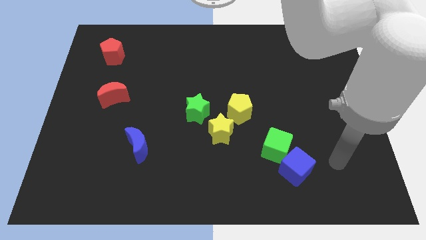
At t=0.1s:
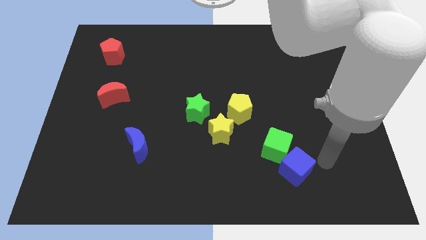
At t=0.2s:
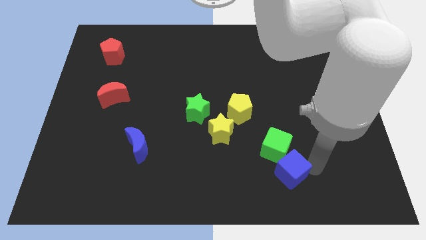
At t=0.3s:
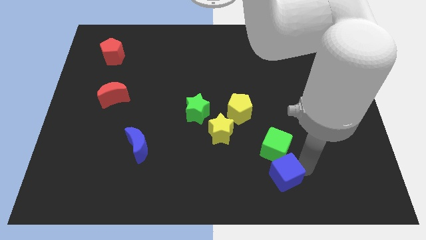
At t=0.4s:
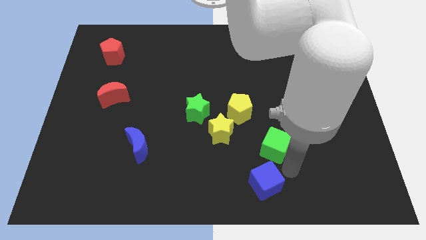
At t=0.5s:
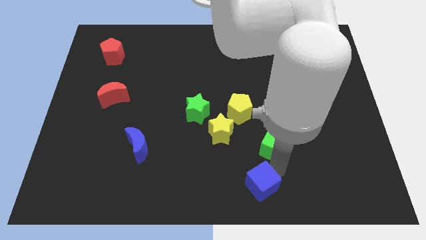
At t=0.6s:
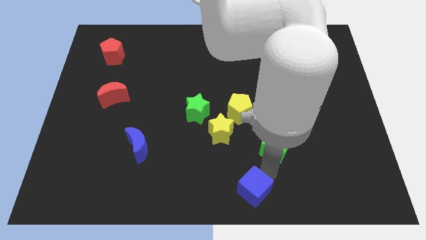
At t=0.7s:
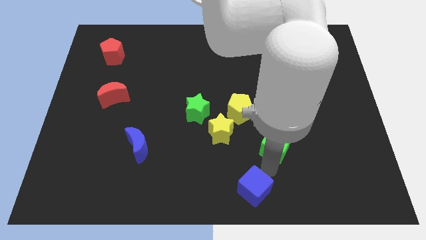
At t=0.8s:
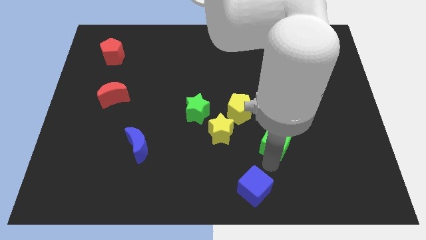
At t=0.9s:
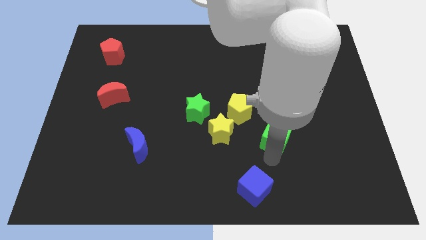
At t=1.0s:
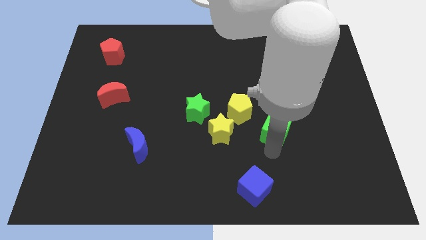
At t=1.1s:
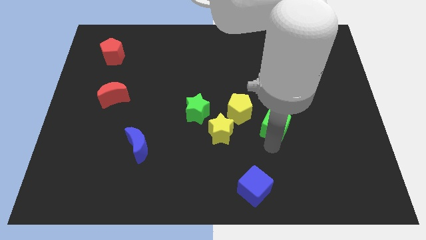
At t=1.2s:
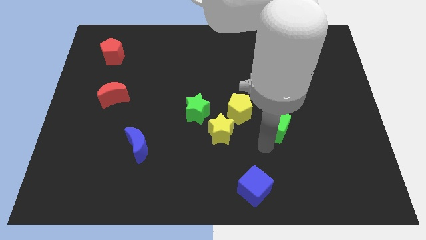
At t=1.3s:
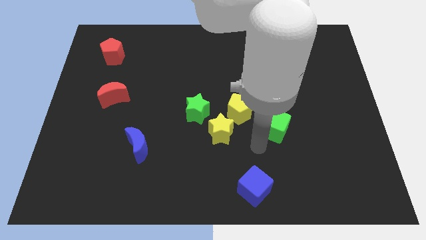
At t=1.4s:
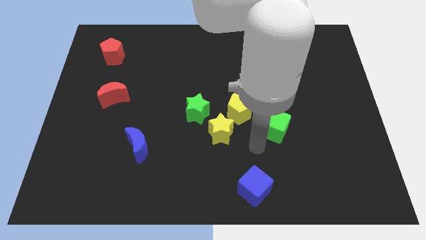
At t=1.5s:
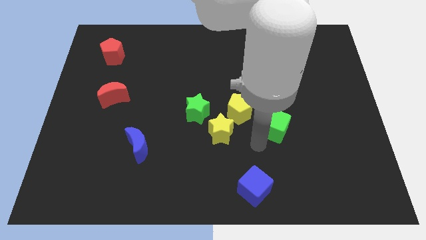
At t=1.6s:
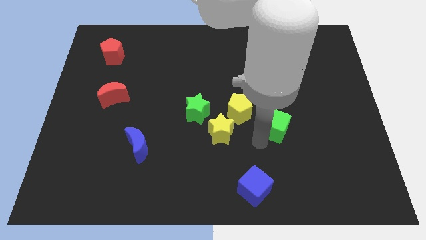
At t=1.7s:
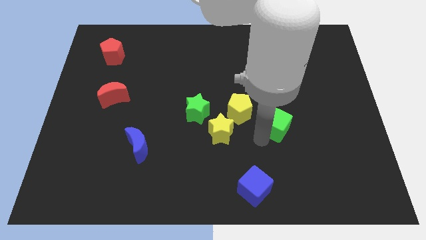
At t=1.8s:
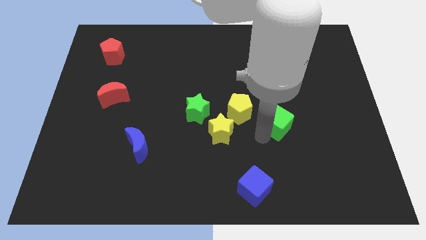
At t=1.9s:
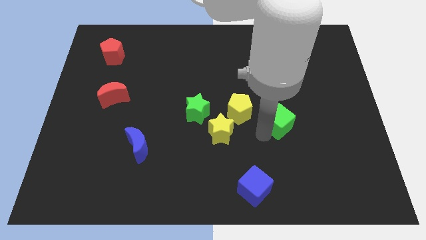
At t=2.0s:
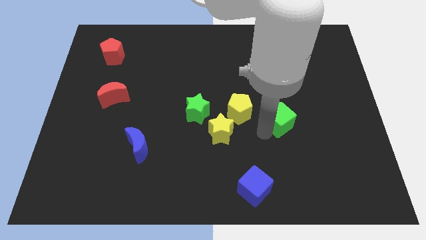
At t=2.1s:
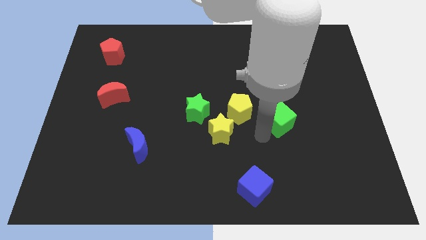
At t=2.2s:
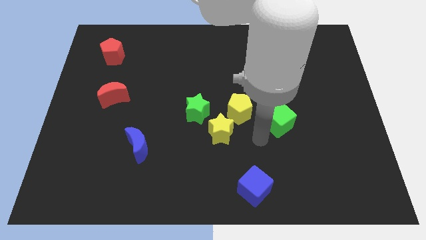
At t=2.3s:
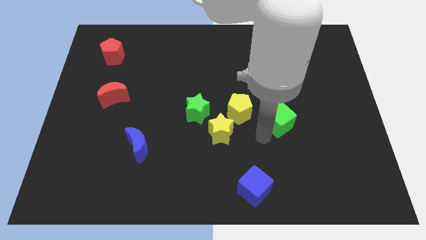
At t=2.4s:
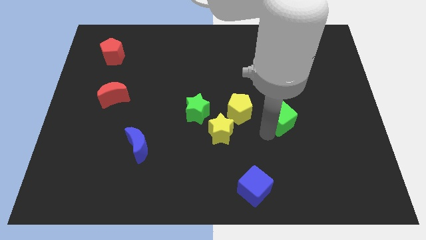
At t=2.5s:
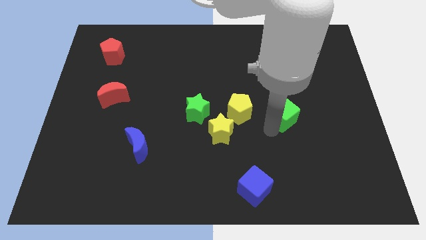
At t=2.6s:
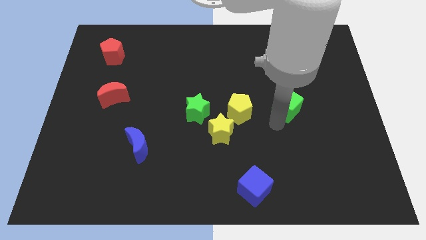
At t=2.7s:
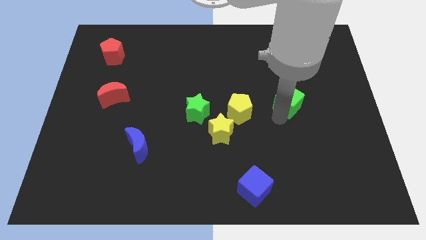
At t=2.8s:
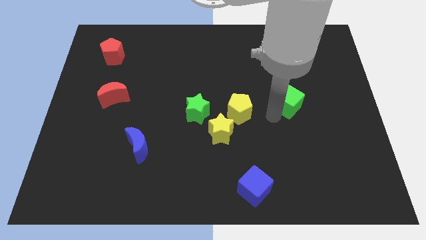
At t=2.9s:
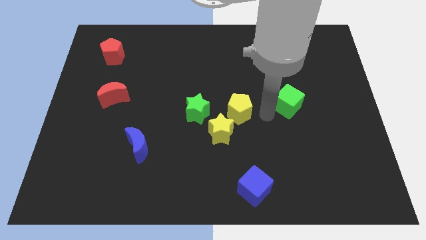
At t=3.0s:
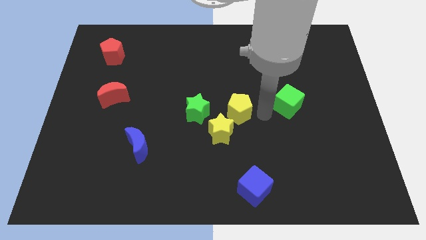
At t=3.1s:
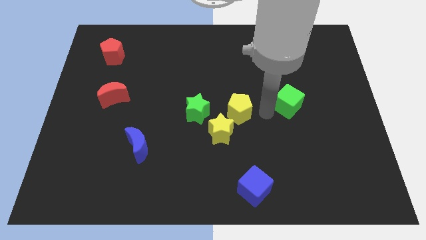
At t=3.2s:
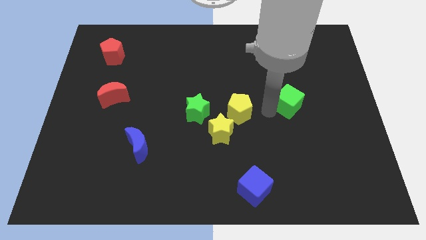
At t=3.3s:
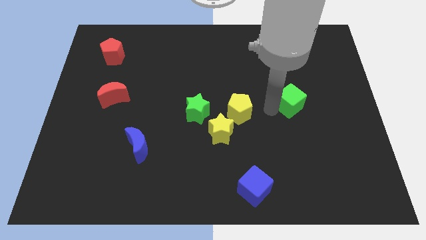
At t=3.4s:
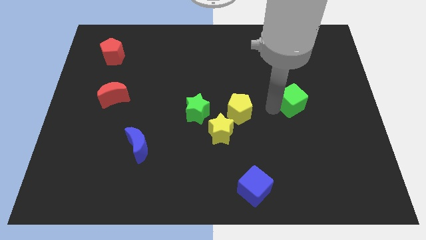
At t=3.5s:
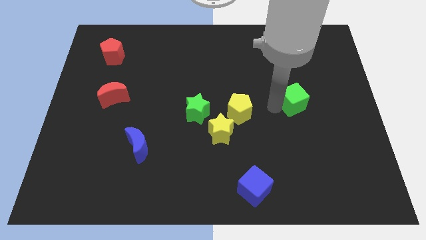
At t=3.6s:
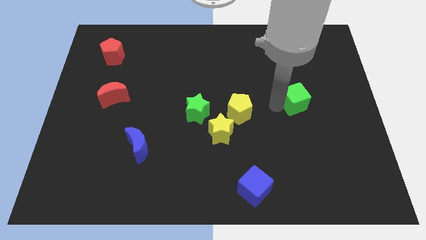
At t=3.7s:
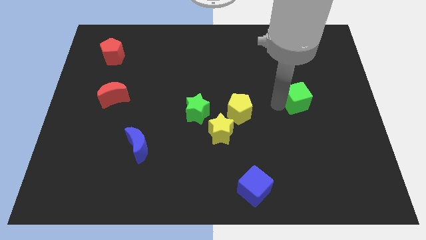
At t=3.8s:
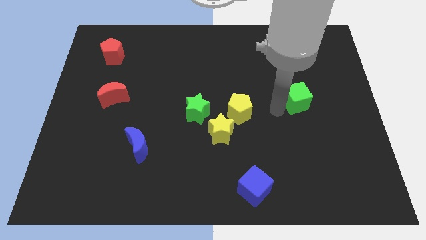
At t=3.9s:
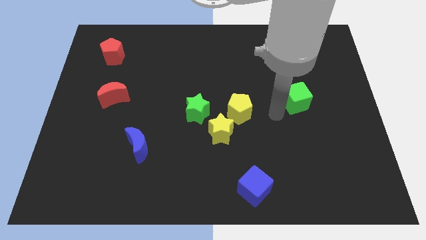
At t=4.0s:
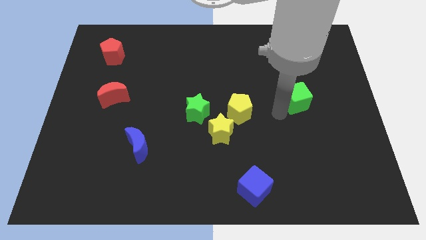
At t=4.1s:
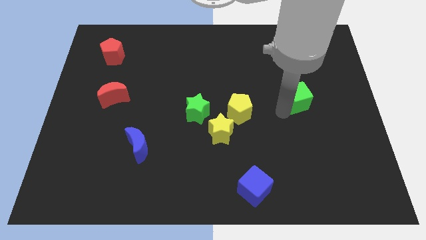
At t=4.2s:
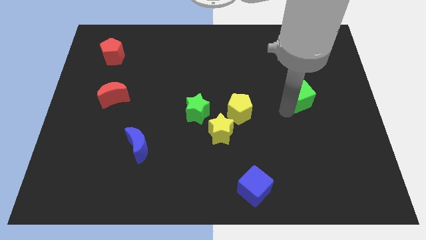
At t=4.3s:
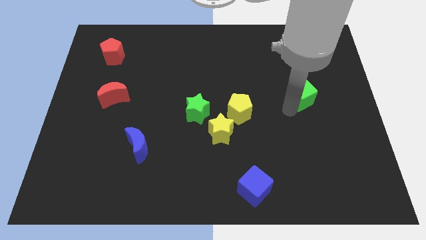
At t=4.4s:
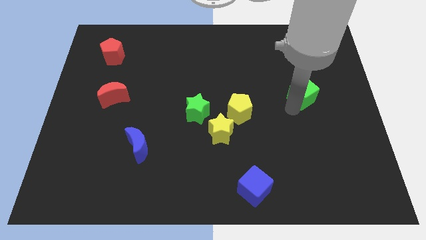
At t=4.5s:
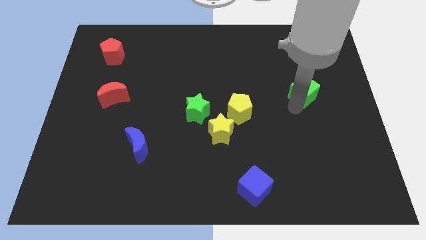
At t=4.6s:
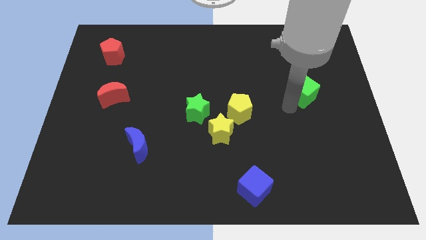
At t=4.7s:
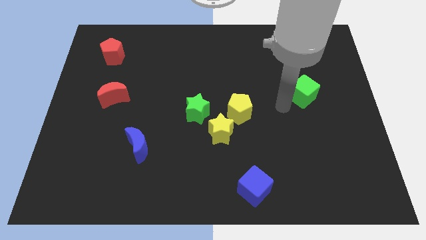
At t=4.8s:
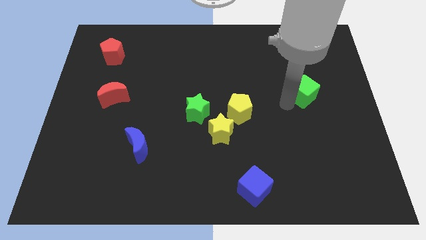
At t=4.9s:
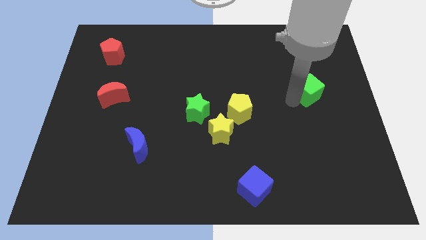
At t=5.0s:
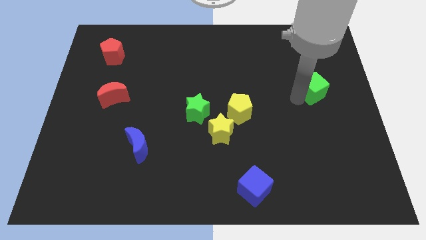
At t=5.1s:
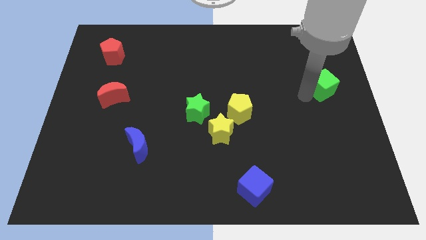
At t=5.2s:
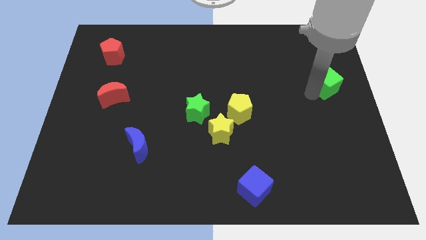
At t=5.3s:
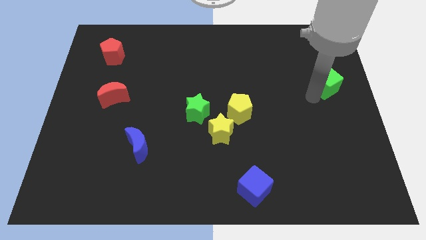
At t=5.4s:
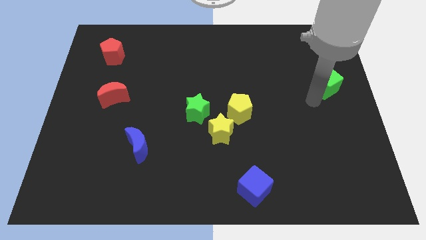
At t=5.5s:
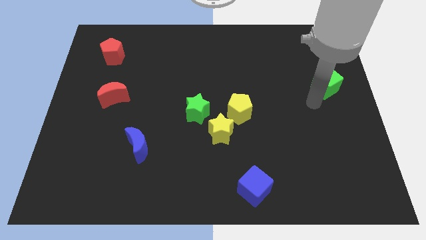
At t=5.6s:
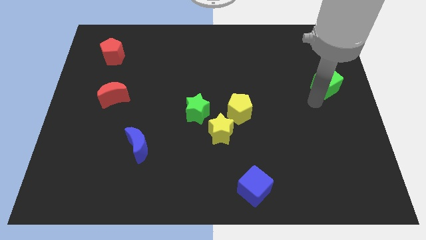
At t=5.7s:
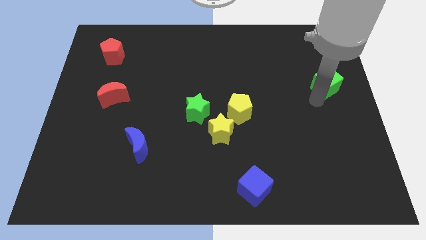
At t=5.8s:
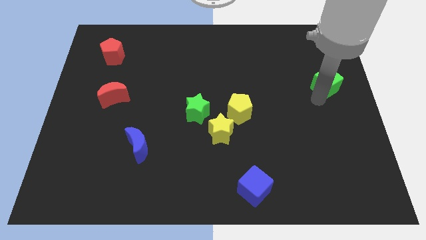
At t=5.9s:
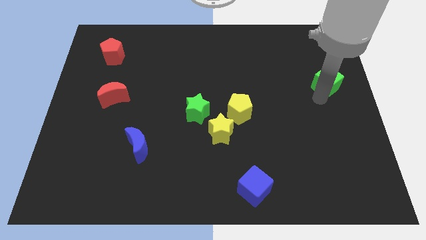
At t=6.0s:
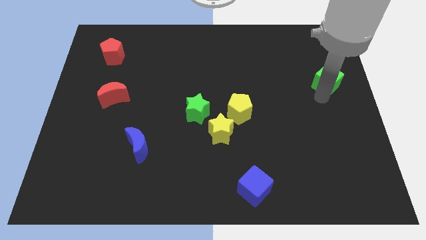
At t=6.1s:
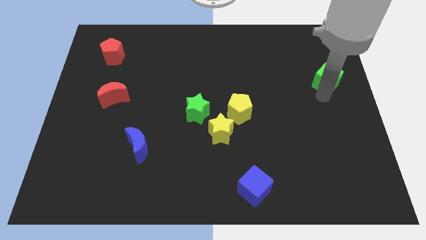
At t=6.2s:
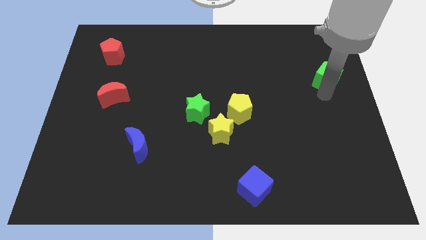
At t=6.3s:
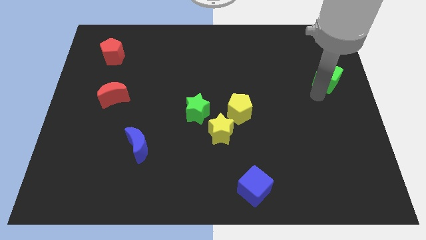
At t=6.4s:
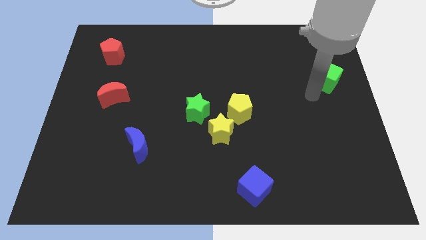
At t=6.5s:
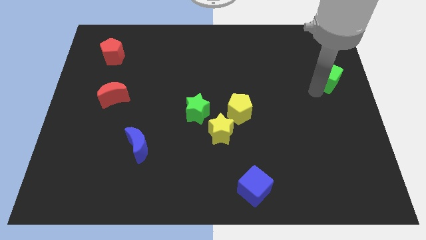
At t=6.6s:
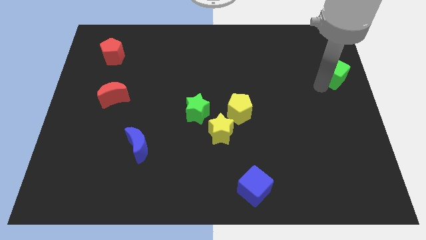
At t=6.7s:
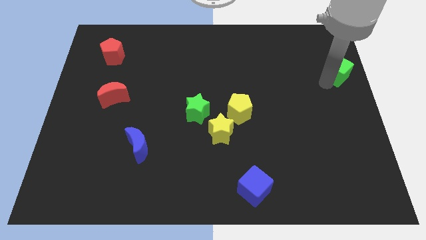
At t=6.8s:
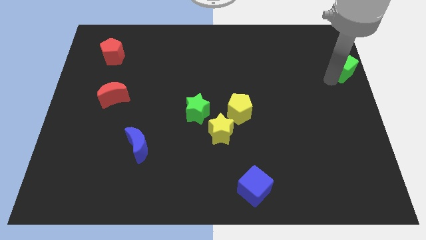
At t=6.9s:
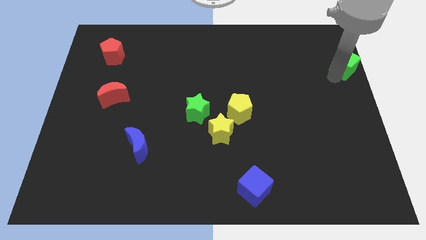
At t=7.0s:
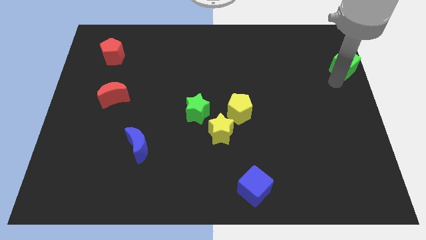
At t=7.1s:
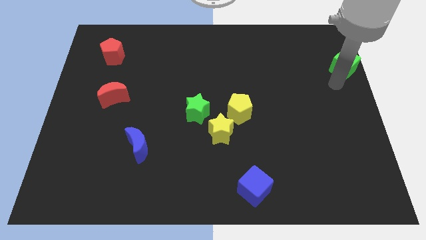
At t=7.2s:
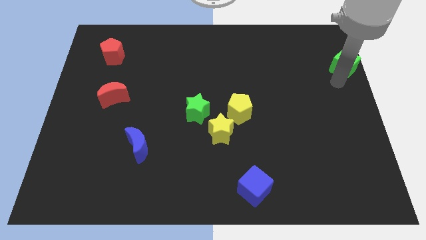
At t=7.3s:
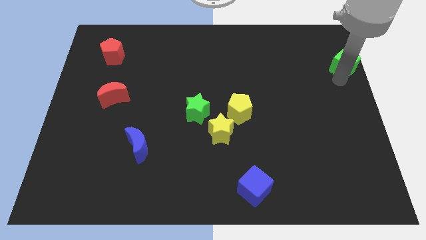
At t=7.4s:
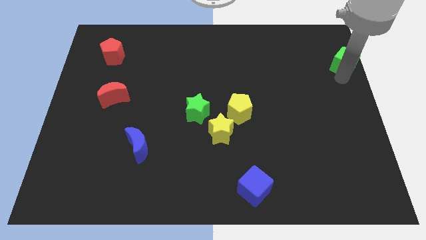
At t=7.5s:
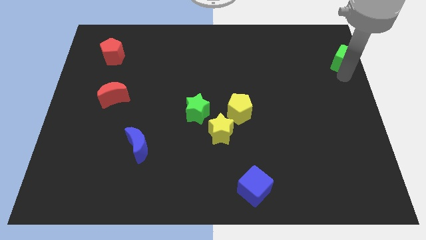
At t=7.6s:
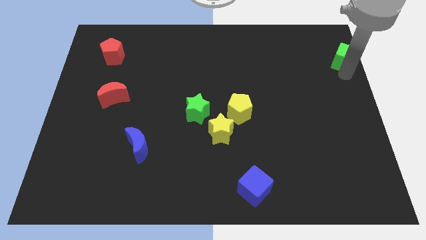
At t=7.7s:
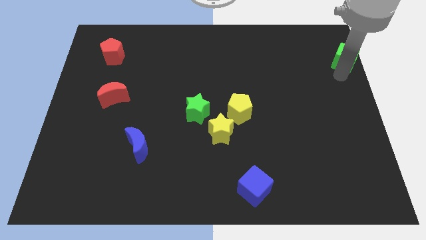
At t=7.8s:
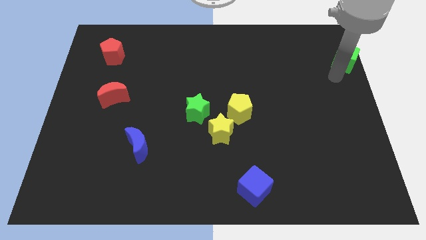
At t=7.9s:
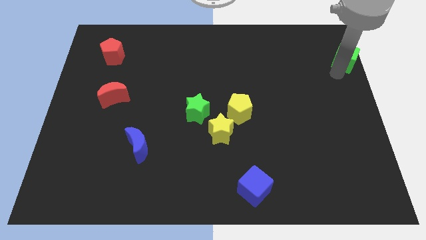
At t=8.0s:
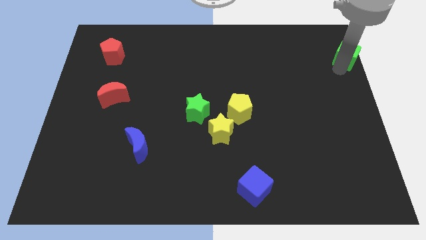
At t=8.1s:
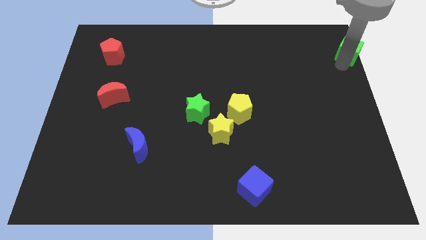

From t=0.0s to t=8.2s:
put the green cube to the top right corner
